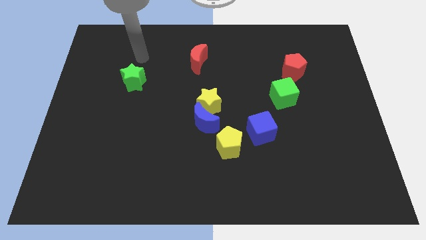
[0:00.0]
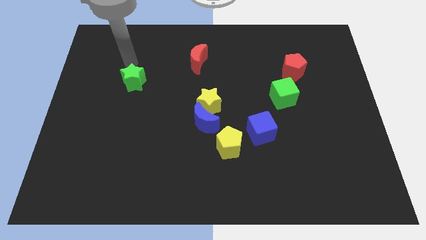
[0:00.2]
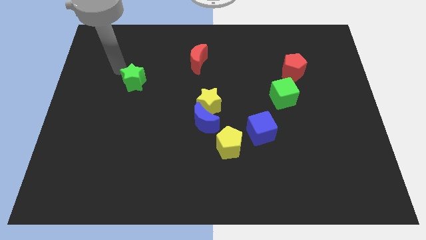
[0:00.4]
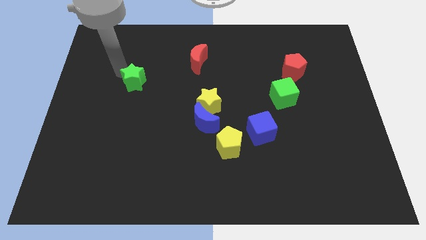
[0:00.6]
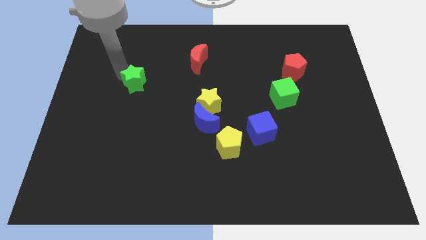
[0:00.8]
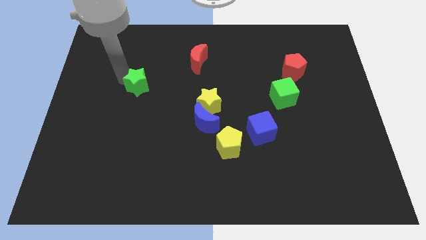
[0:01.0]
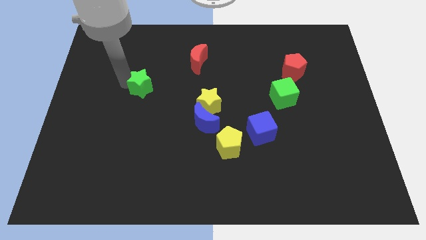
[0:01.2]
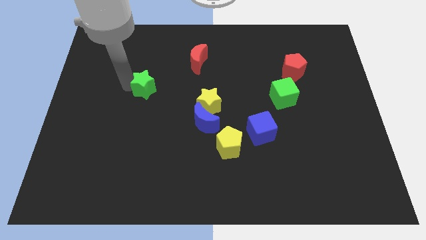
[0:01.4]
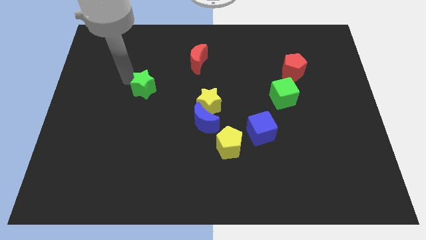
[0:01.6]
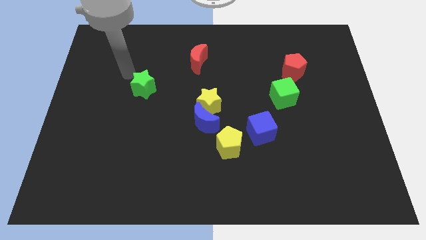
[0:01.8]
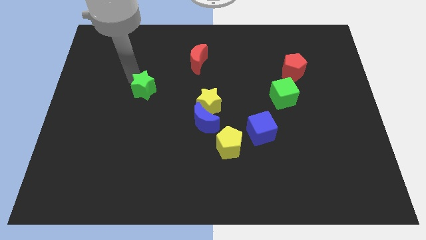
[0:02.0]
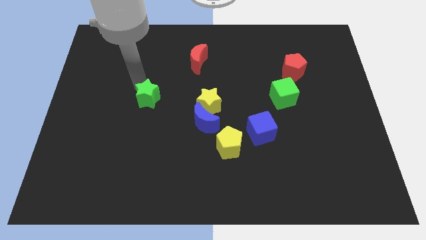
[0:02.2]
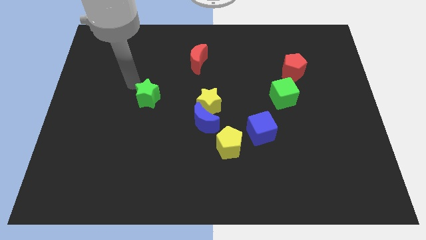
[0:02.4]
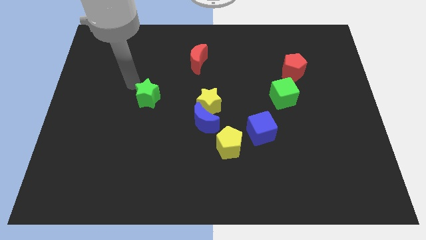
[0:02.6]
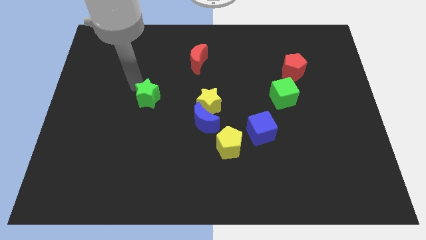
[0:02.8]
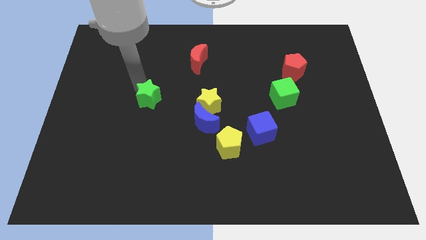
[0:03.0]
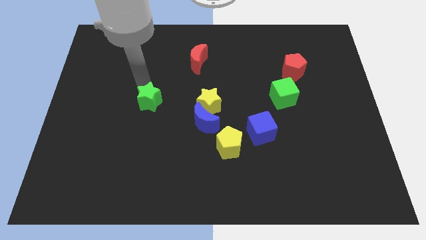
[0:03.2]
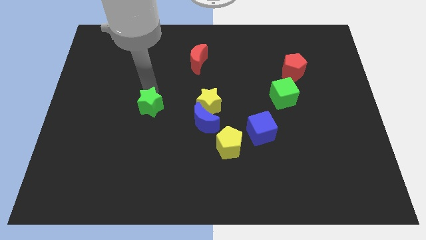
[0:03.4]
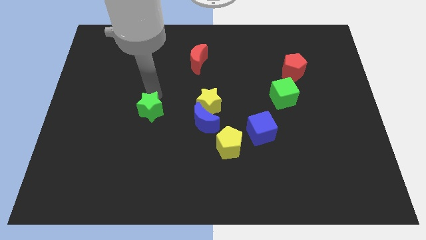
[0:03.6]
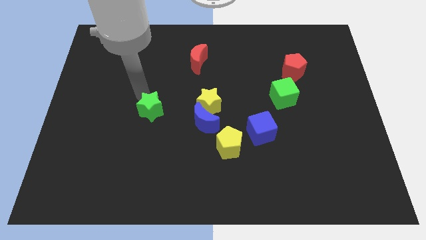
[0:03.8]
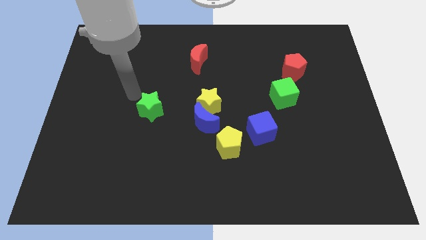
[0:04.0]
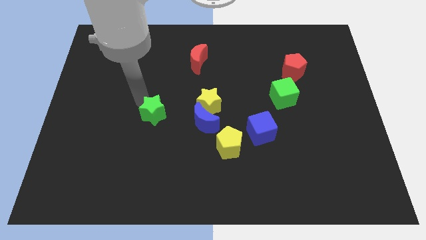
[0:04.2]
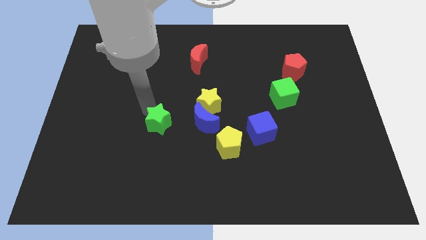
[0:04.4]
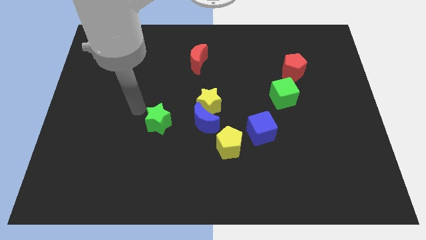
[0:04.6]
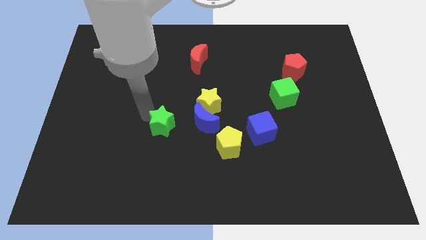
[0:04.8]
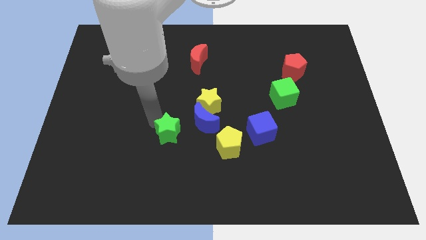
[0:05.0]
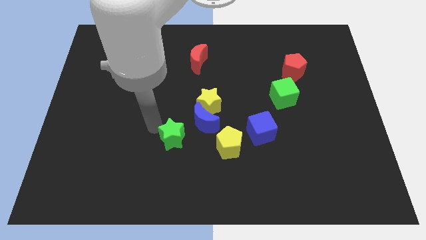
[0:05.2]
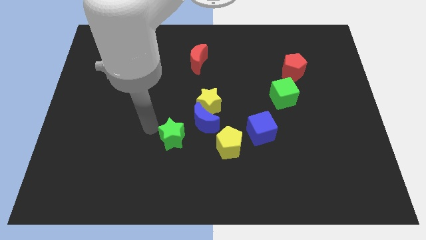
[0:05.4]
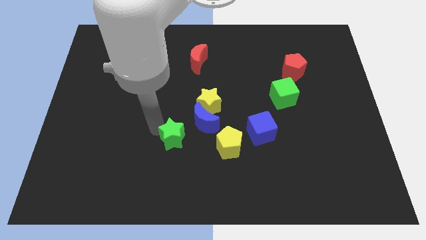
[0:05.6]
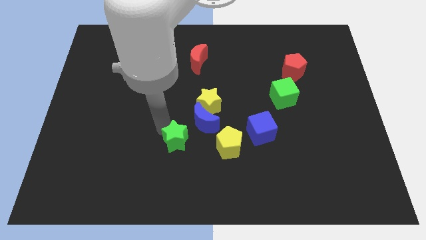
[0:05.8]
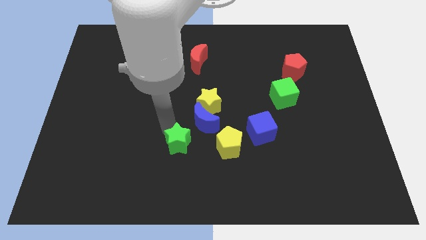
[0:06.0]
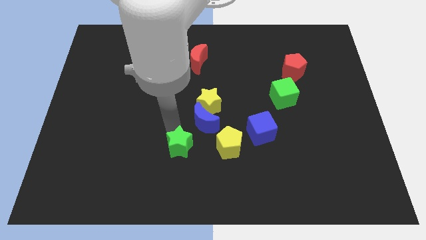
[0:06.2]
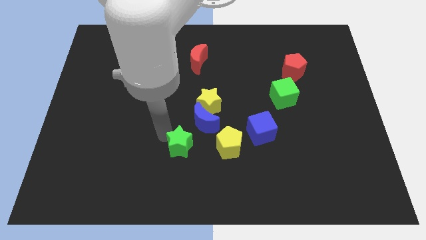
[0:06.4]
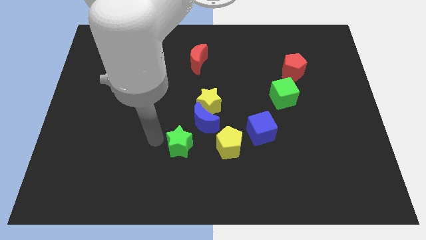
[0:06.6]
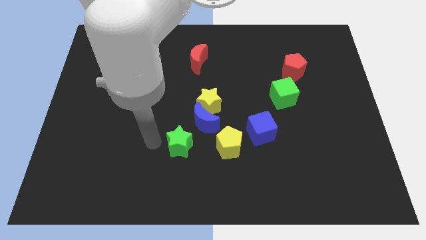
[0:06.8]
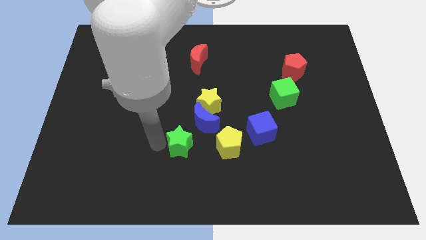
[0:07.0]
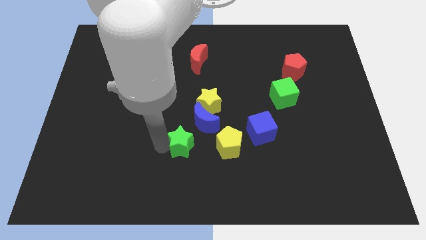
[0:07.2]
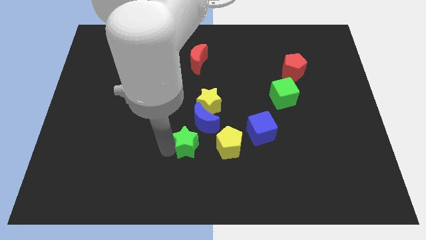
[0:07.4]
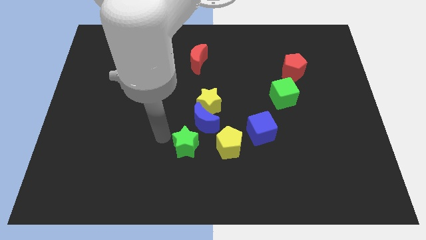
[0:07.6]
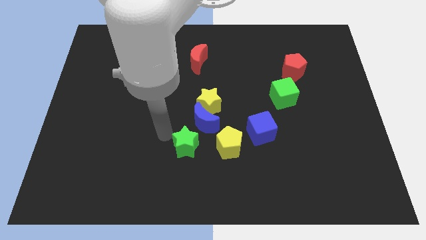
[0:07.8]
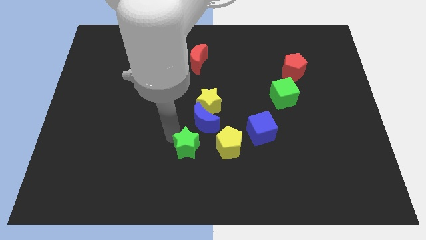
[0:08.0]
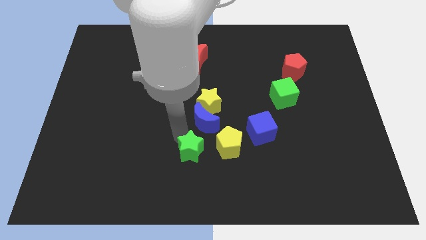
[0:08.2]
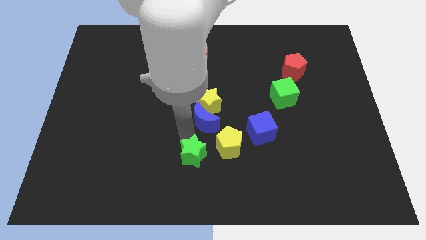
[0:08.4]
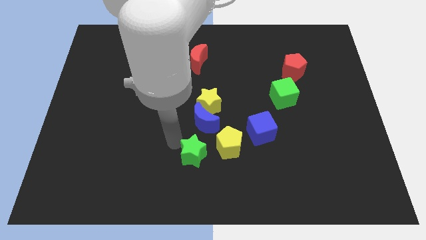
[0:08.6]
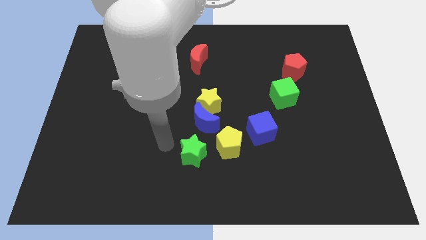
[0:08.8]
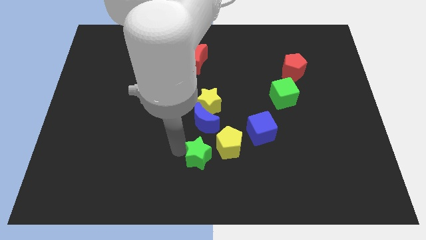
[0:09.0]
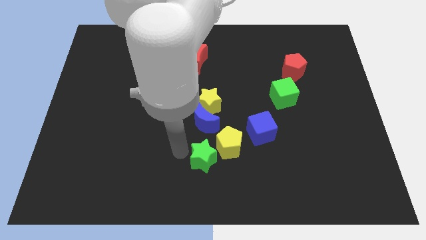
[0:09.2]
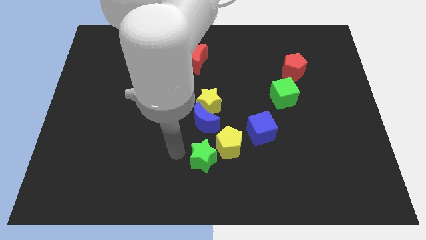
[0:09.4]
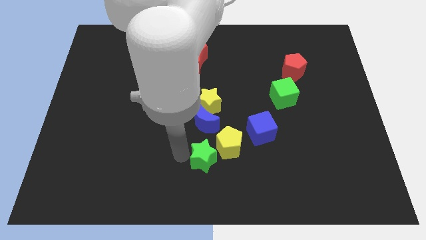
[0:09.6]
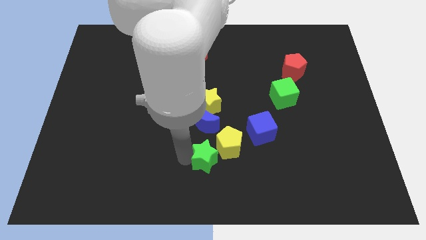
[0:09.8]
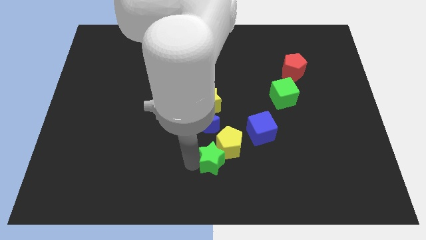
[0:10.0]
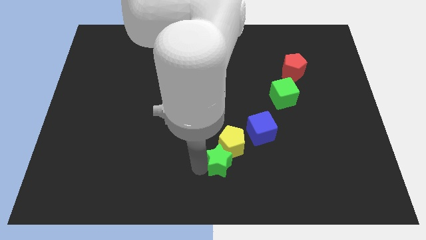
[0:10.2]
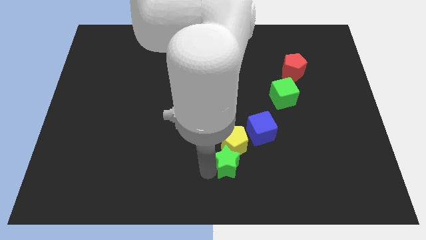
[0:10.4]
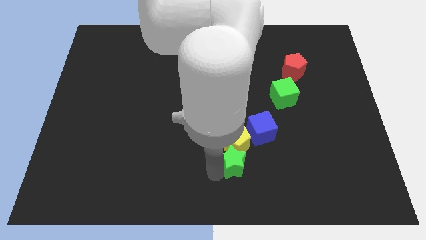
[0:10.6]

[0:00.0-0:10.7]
put the green star to the bottom right of the yellow pentagon

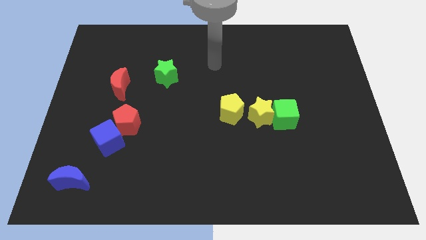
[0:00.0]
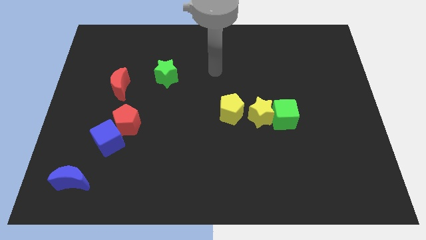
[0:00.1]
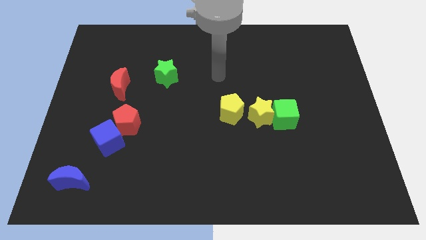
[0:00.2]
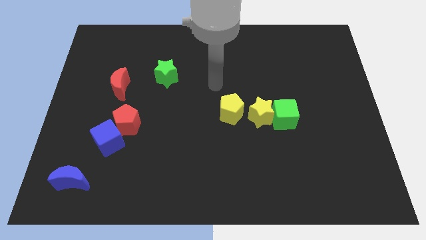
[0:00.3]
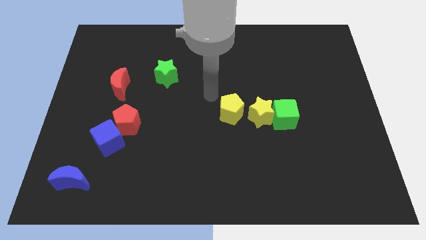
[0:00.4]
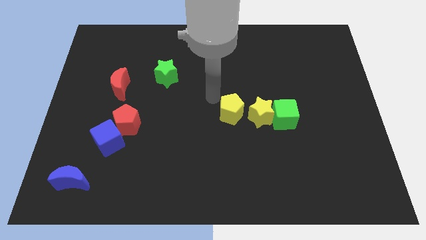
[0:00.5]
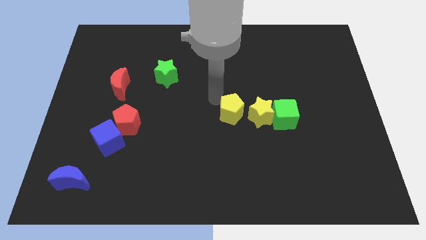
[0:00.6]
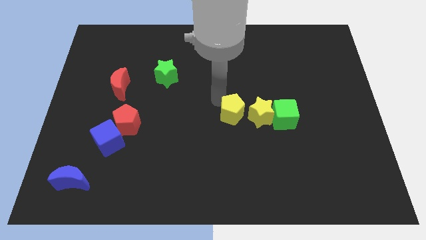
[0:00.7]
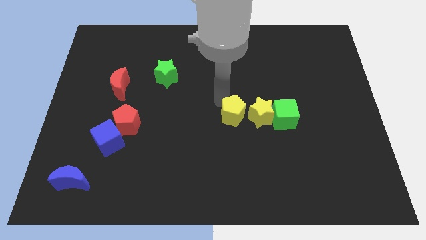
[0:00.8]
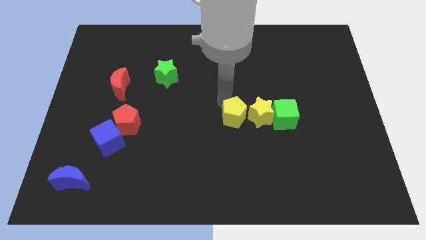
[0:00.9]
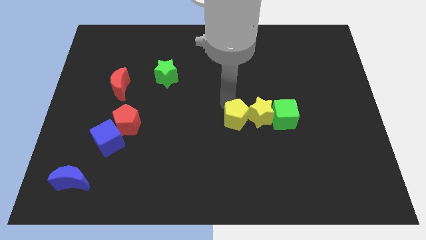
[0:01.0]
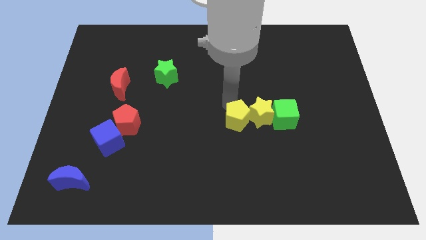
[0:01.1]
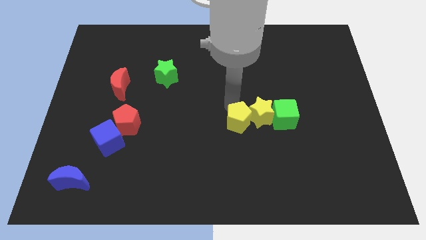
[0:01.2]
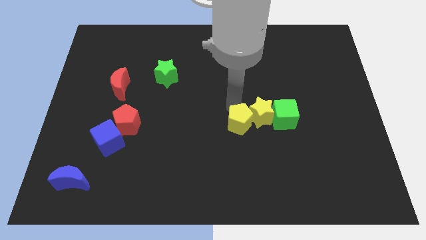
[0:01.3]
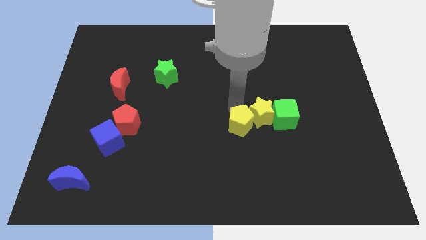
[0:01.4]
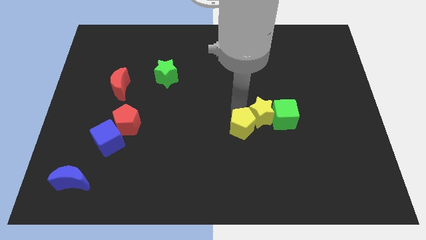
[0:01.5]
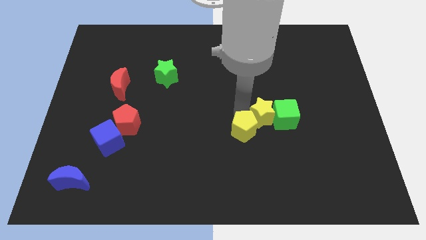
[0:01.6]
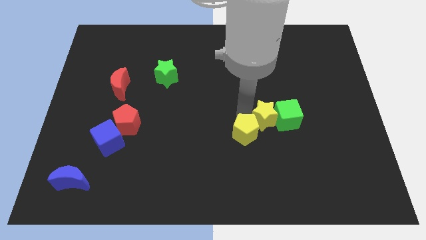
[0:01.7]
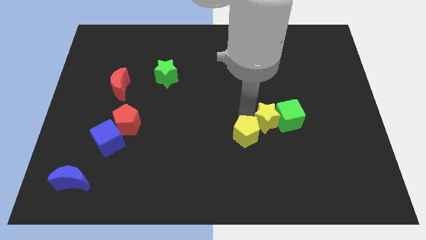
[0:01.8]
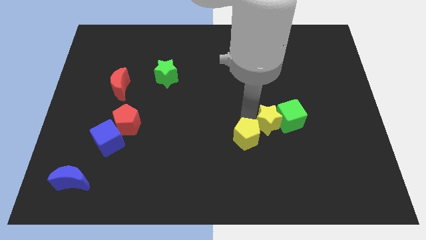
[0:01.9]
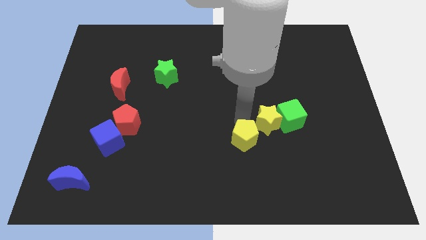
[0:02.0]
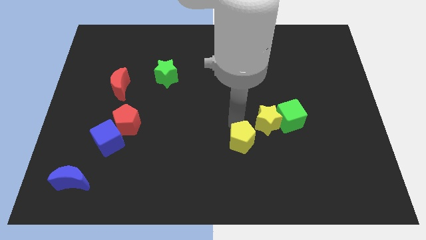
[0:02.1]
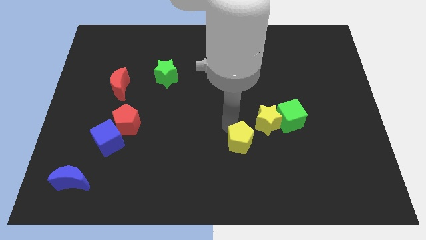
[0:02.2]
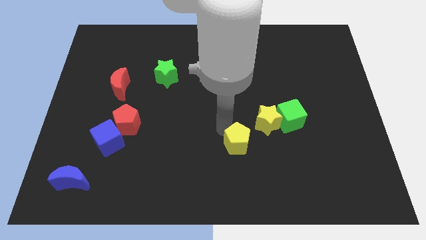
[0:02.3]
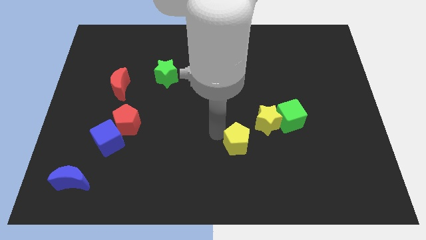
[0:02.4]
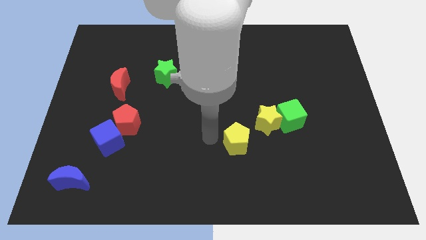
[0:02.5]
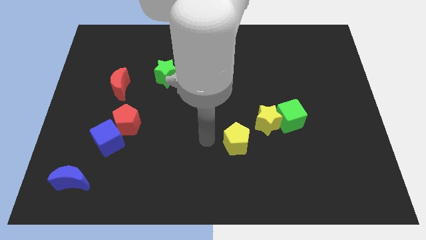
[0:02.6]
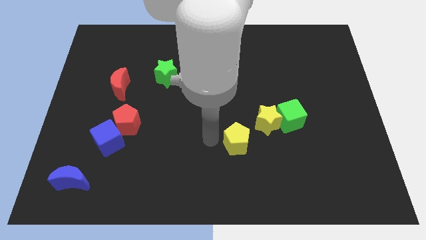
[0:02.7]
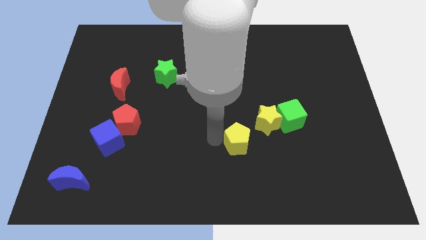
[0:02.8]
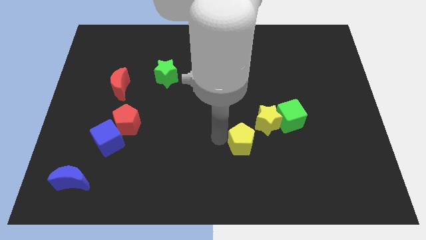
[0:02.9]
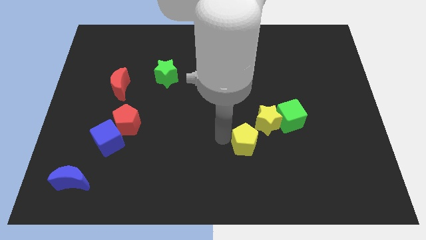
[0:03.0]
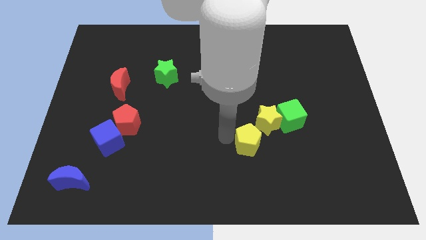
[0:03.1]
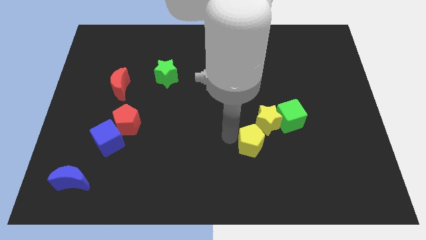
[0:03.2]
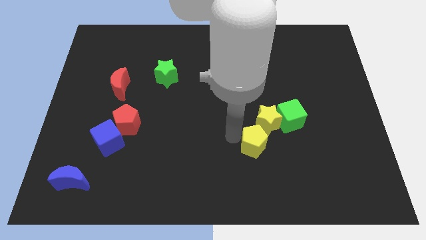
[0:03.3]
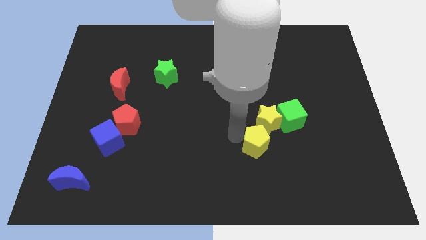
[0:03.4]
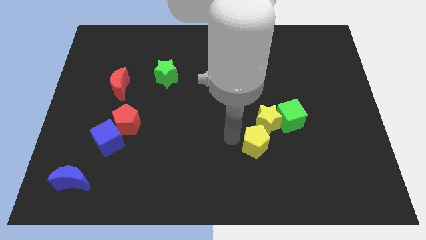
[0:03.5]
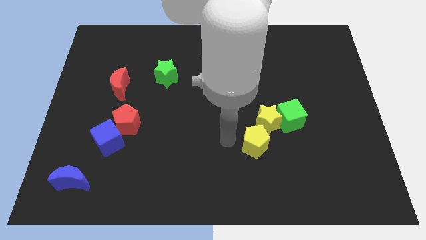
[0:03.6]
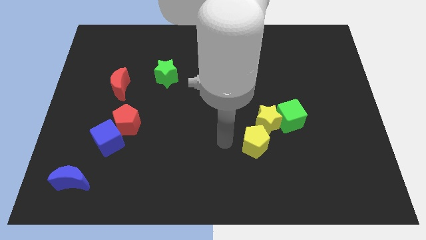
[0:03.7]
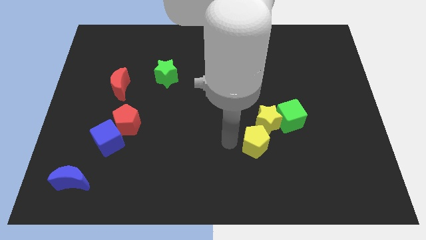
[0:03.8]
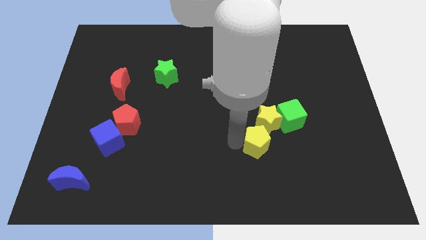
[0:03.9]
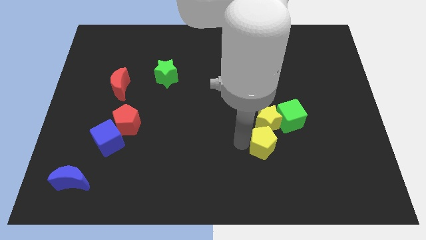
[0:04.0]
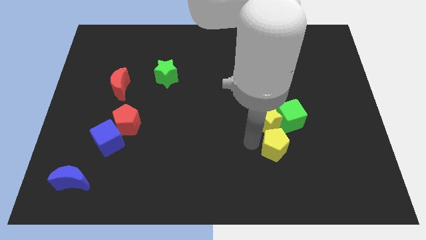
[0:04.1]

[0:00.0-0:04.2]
move the yellow pentagon to the bottom side of the green cube
